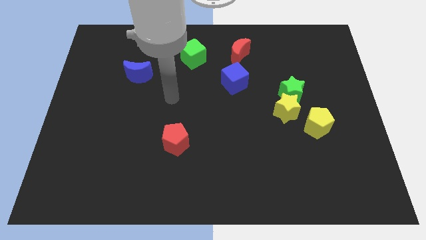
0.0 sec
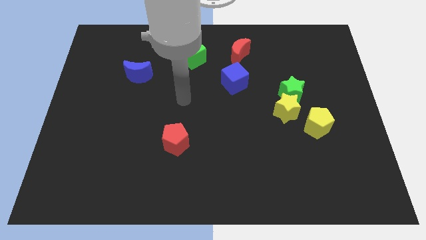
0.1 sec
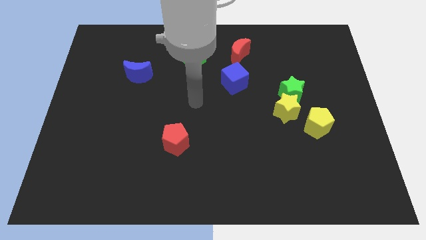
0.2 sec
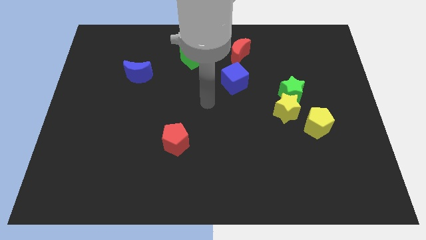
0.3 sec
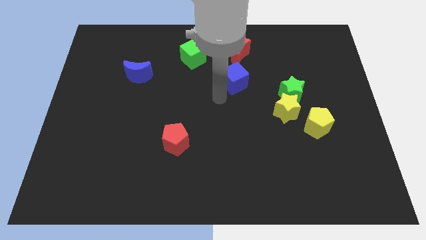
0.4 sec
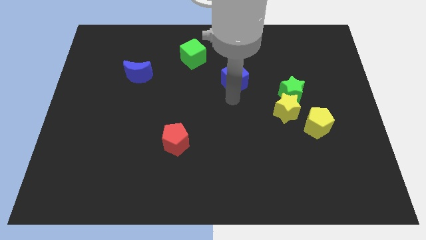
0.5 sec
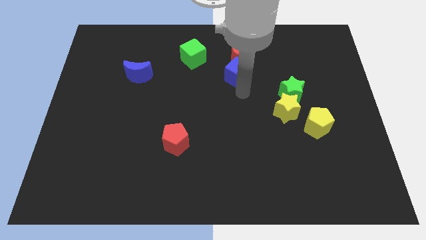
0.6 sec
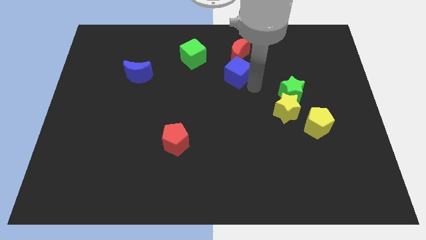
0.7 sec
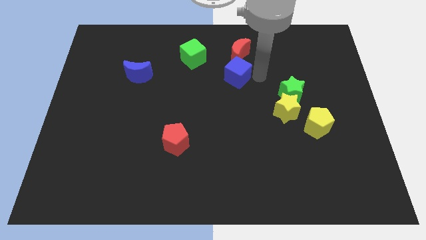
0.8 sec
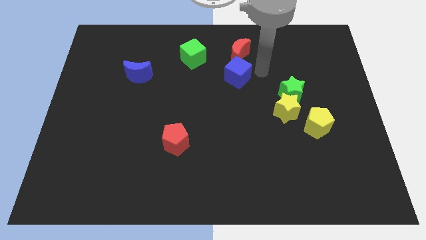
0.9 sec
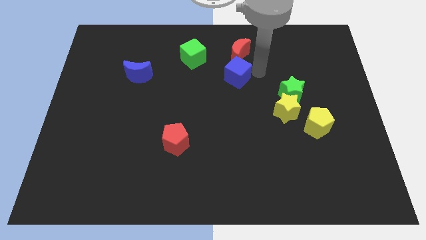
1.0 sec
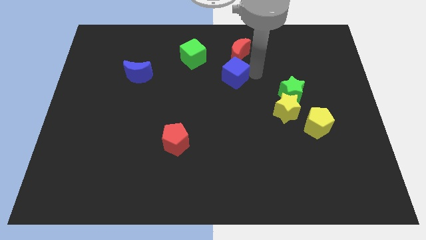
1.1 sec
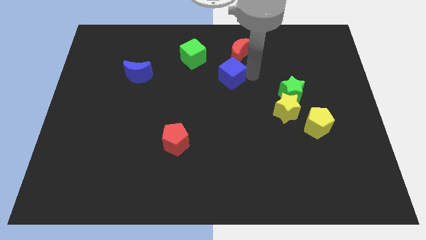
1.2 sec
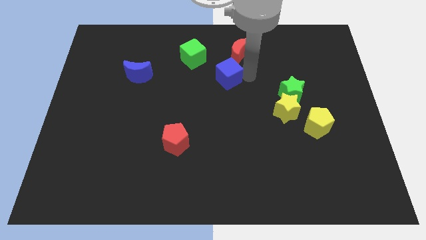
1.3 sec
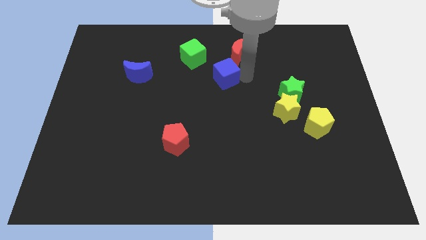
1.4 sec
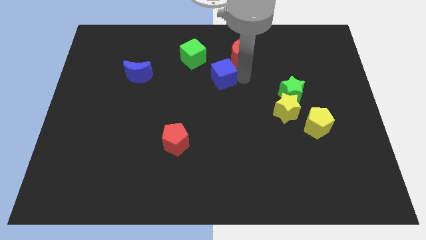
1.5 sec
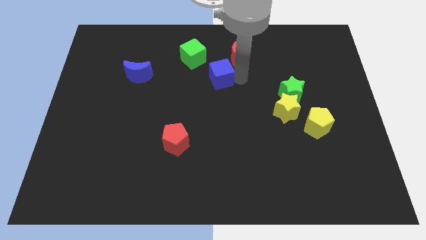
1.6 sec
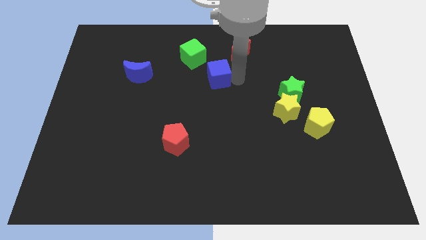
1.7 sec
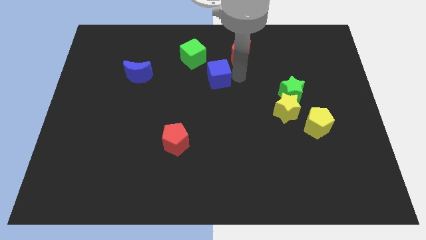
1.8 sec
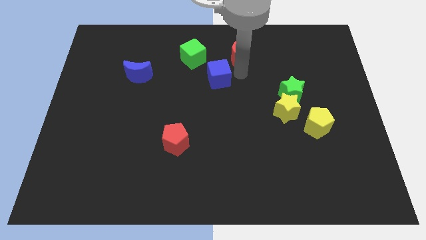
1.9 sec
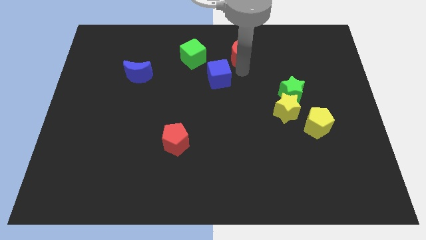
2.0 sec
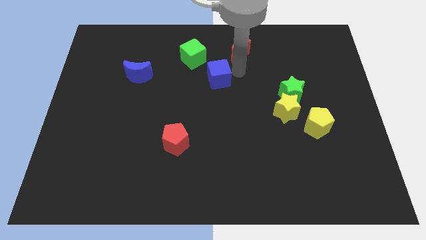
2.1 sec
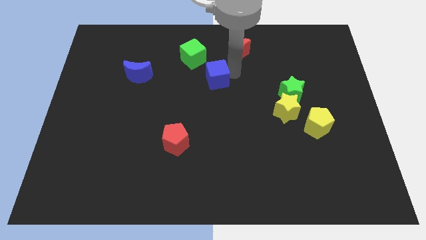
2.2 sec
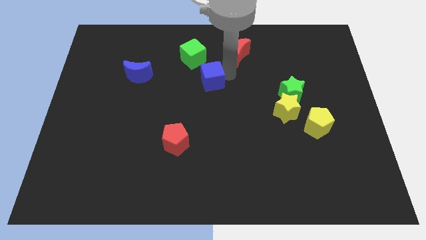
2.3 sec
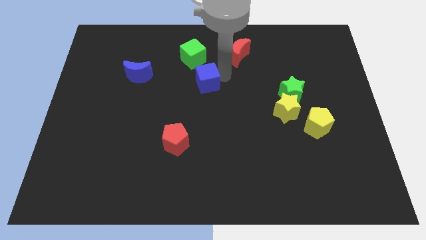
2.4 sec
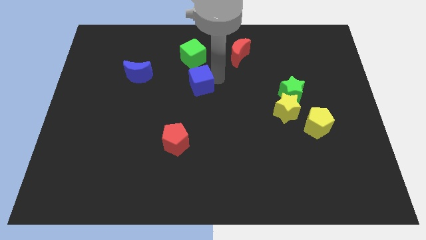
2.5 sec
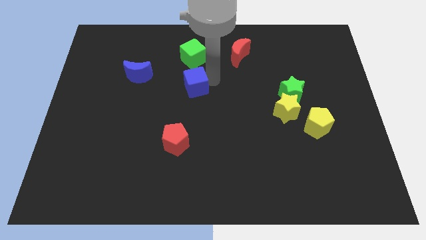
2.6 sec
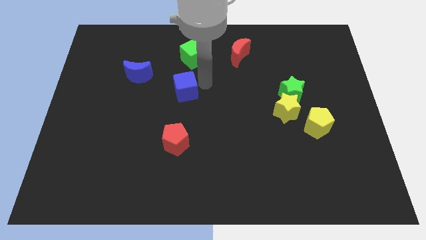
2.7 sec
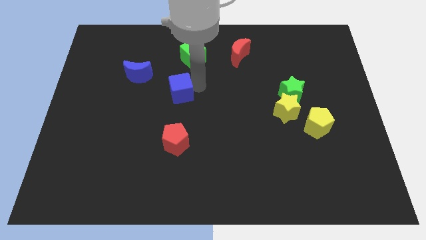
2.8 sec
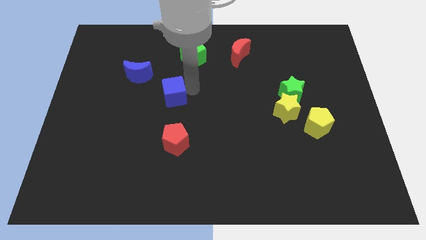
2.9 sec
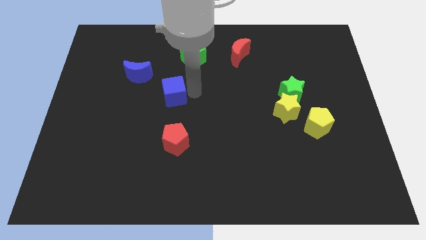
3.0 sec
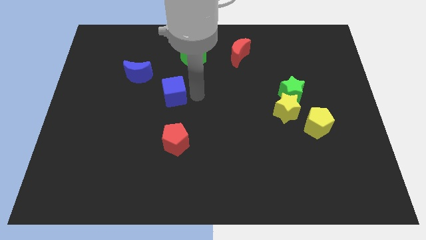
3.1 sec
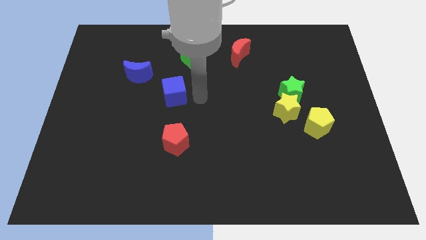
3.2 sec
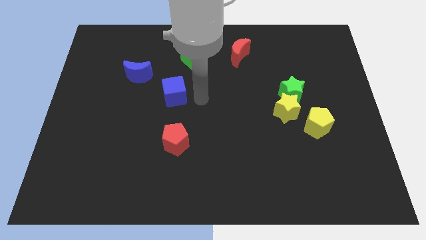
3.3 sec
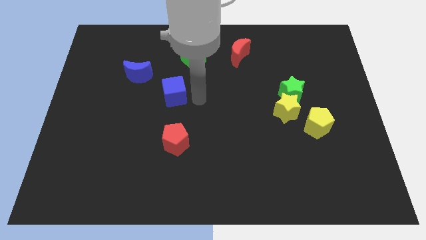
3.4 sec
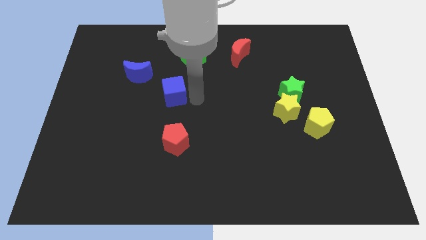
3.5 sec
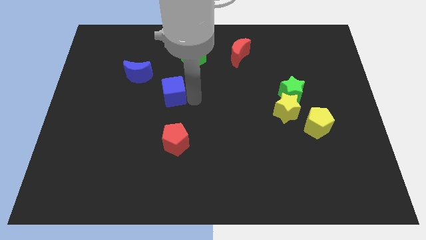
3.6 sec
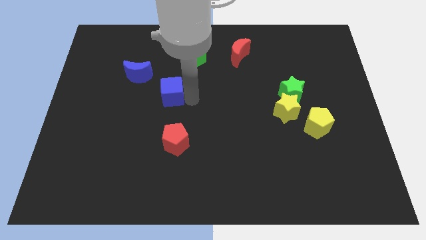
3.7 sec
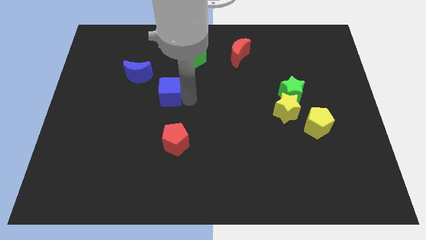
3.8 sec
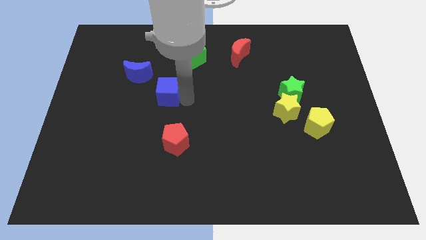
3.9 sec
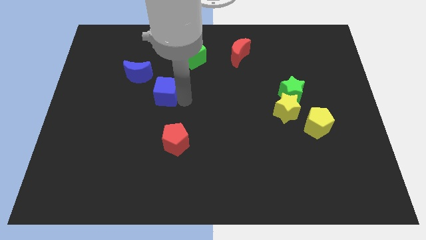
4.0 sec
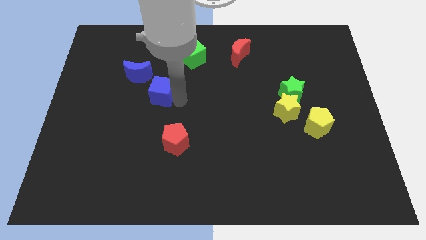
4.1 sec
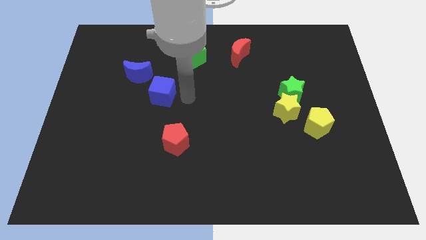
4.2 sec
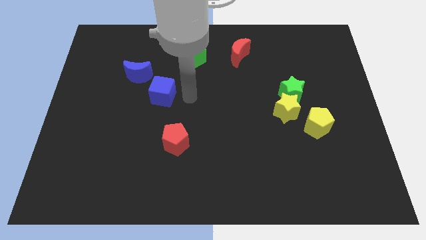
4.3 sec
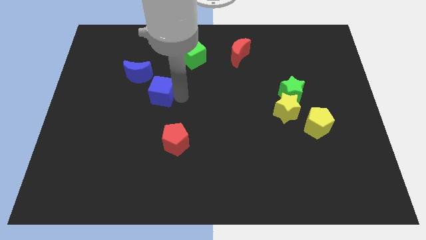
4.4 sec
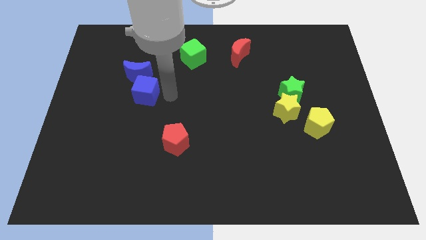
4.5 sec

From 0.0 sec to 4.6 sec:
push the blue cube left

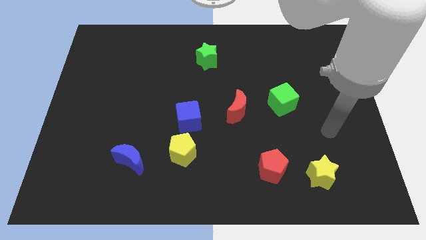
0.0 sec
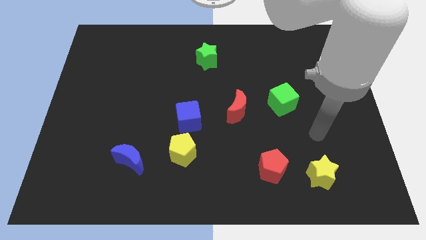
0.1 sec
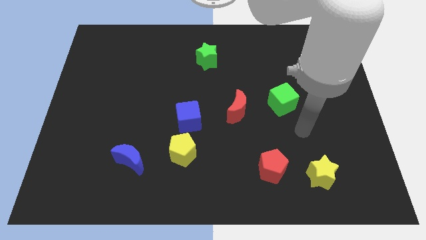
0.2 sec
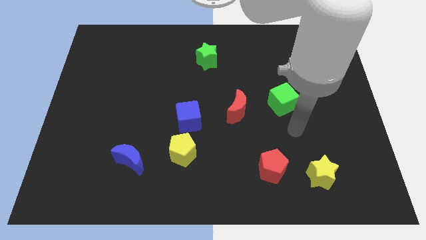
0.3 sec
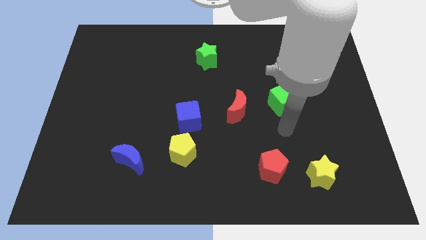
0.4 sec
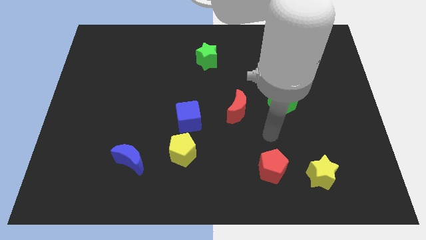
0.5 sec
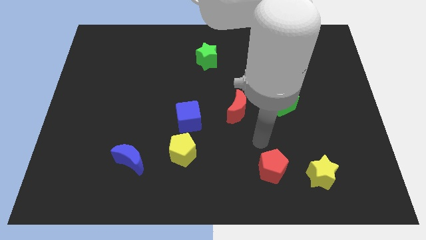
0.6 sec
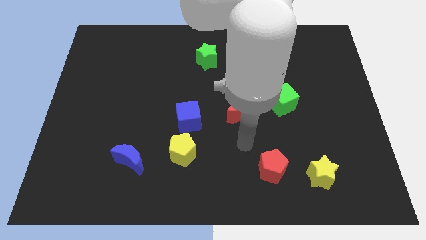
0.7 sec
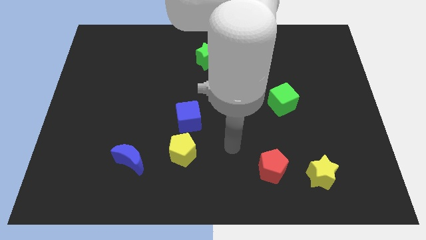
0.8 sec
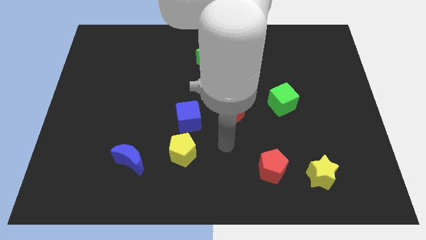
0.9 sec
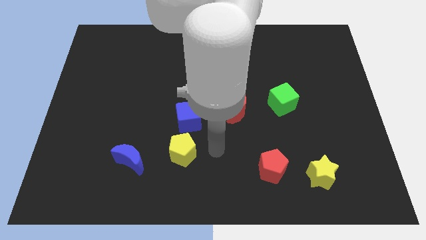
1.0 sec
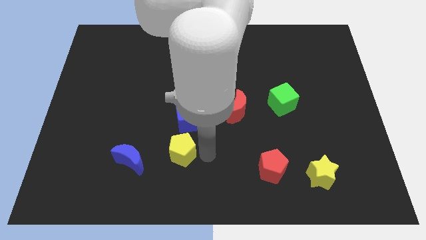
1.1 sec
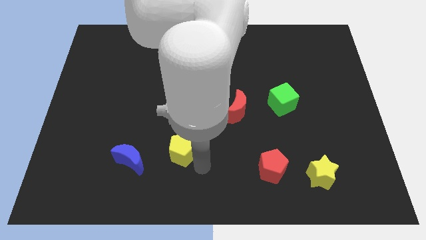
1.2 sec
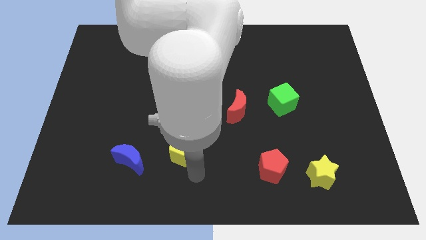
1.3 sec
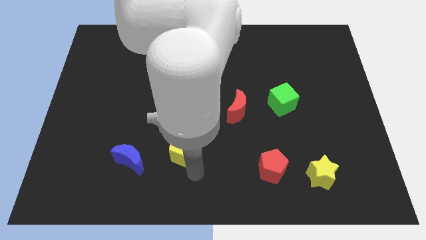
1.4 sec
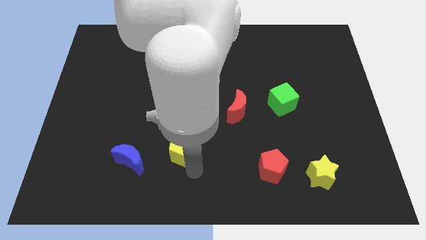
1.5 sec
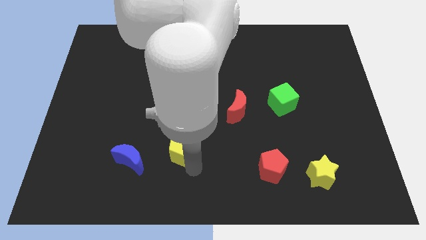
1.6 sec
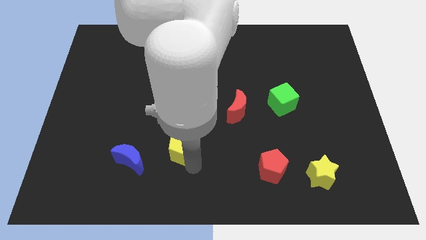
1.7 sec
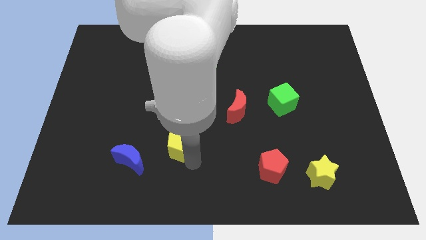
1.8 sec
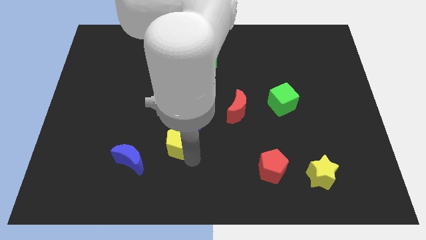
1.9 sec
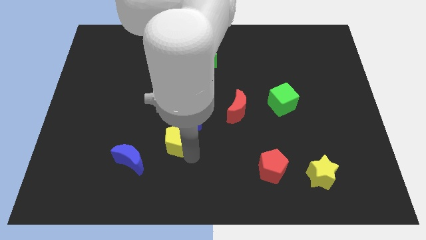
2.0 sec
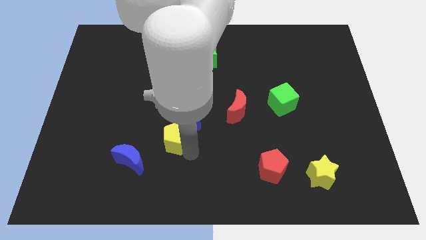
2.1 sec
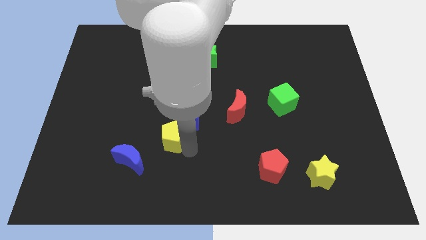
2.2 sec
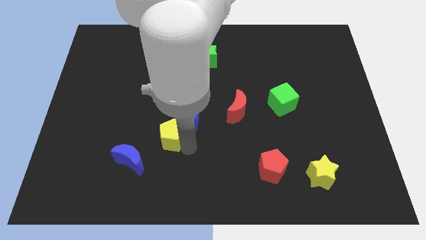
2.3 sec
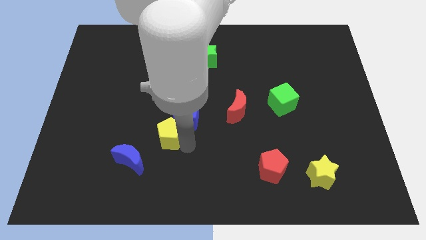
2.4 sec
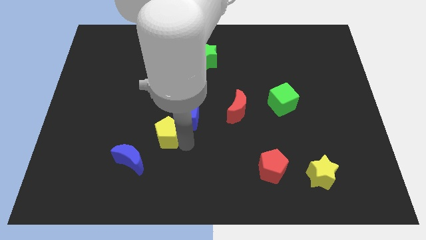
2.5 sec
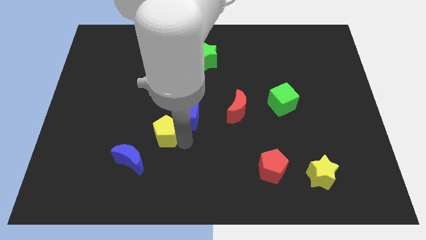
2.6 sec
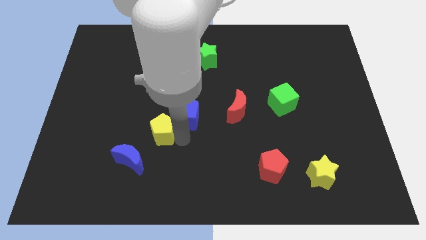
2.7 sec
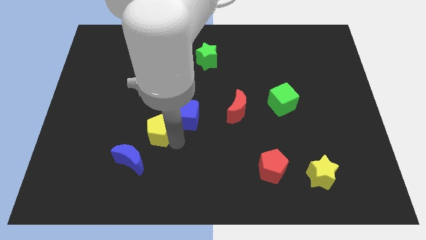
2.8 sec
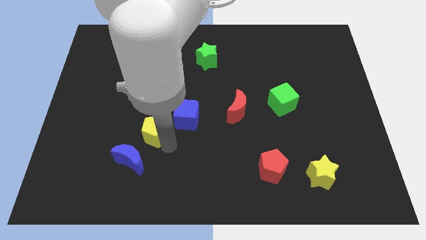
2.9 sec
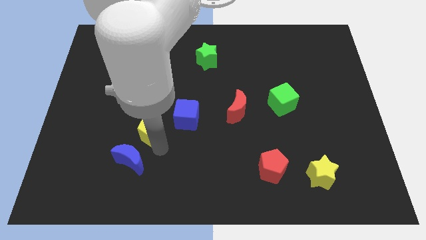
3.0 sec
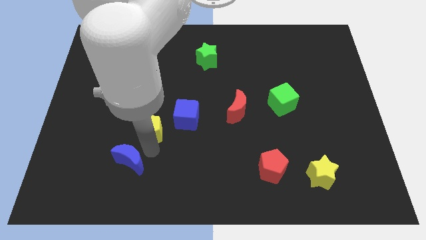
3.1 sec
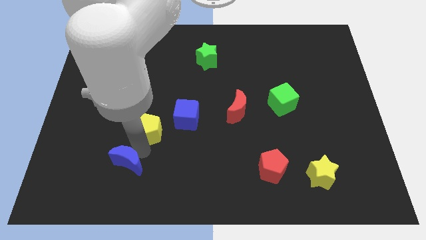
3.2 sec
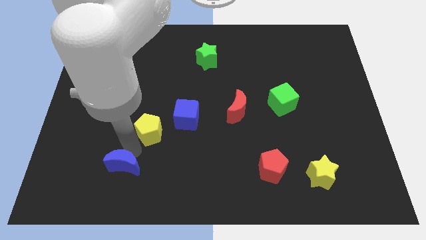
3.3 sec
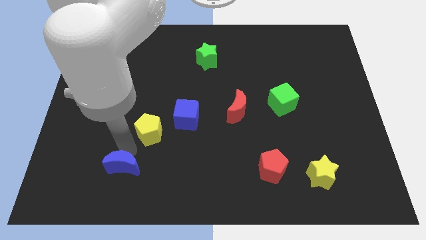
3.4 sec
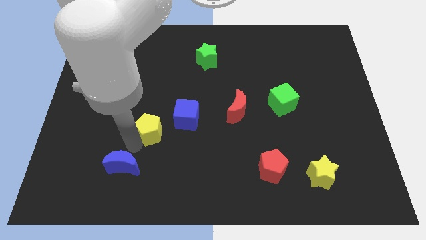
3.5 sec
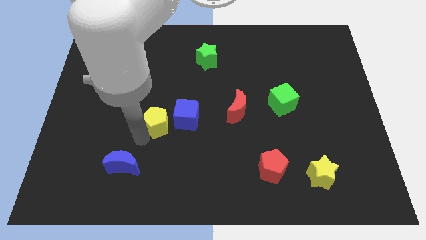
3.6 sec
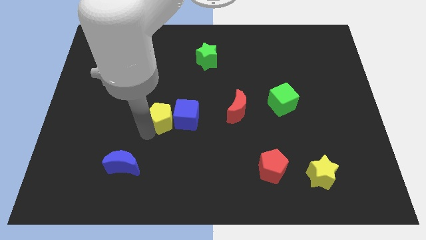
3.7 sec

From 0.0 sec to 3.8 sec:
slide the yellow pentagon a little upwards
